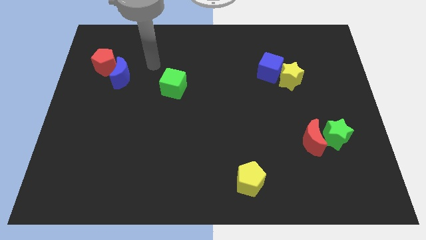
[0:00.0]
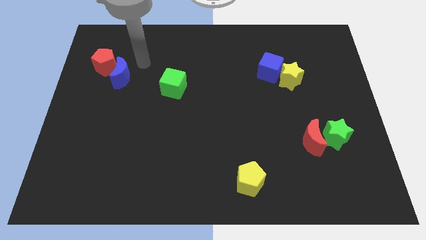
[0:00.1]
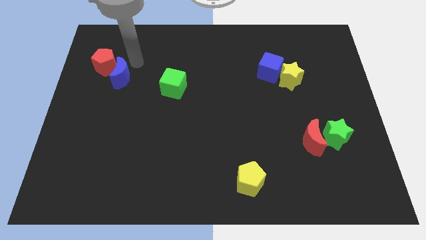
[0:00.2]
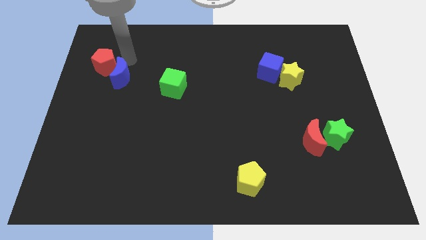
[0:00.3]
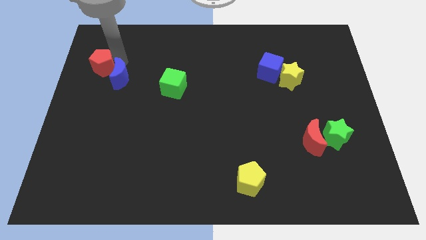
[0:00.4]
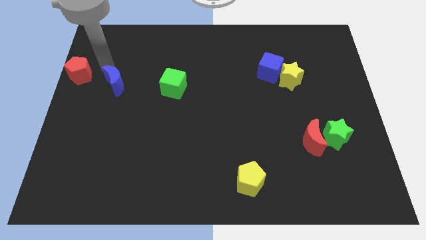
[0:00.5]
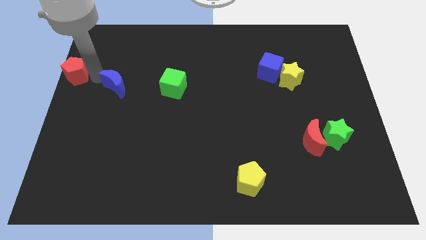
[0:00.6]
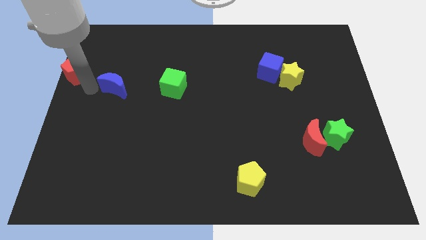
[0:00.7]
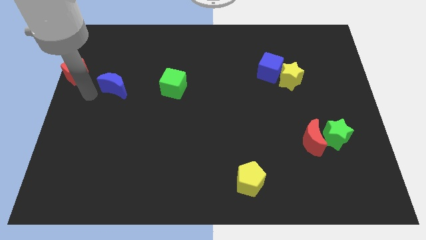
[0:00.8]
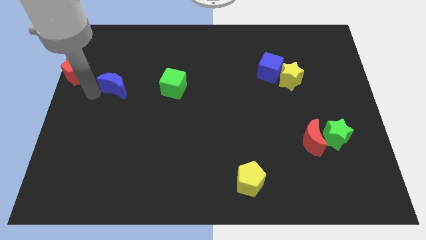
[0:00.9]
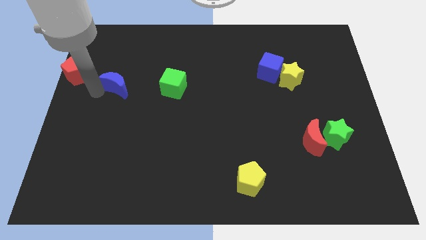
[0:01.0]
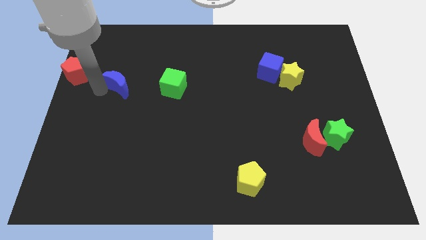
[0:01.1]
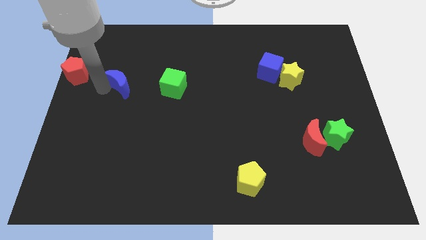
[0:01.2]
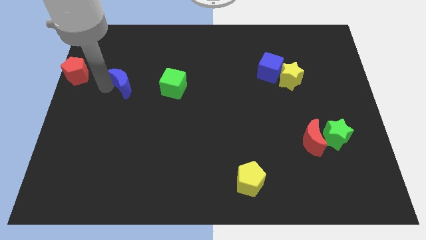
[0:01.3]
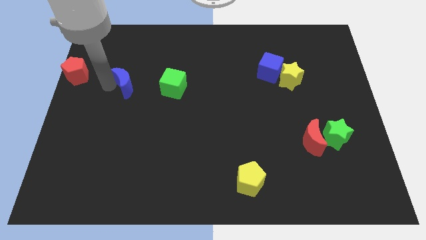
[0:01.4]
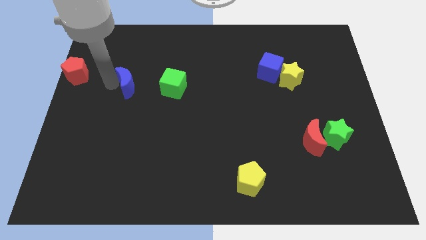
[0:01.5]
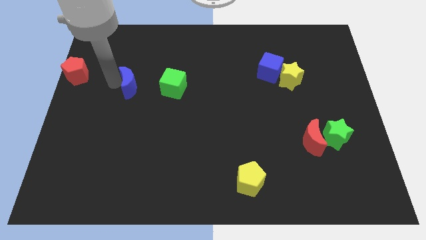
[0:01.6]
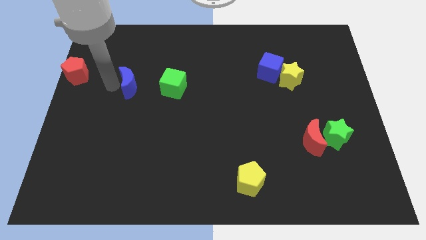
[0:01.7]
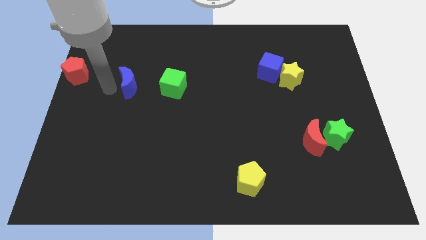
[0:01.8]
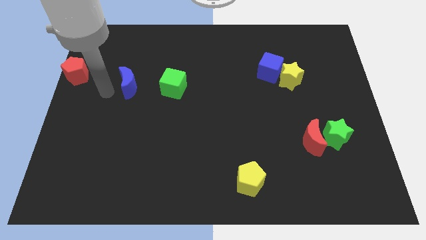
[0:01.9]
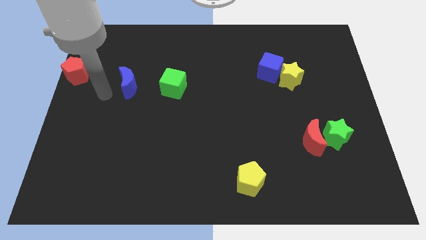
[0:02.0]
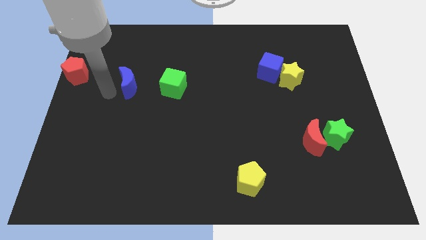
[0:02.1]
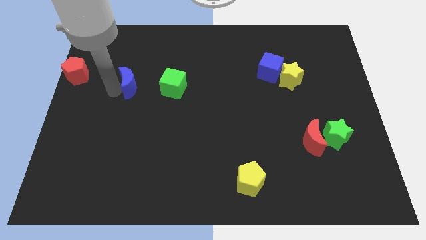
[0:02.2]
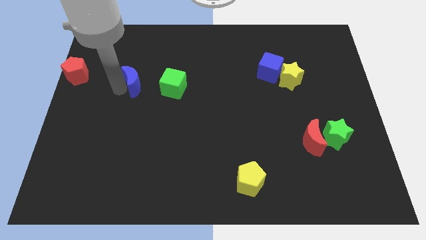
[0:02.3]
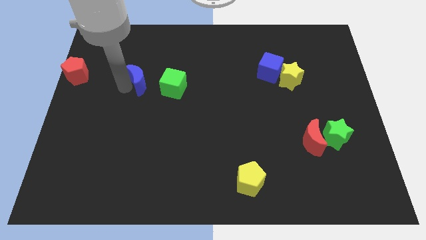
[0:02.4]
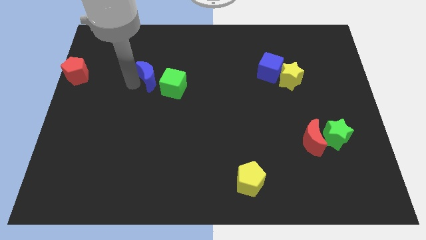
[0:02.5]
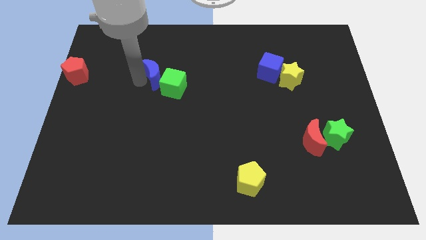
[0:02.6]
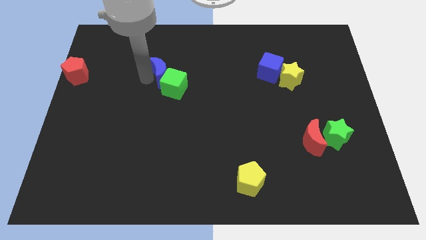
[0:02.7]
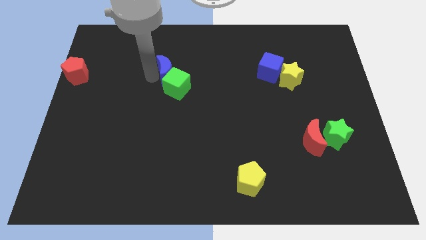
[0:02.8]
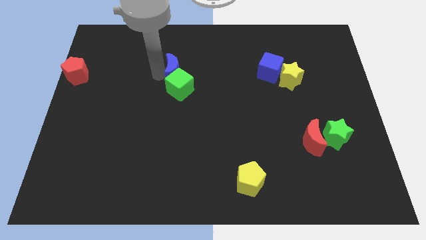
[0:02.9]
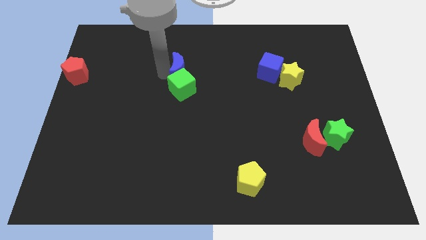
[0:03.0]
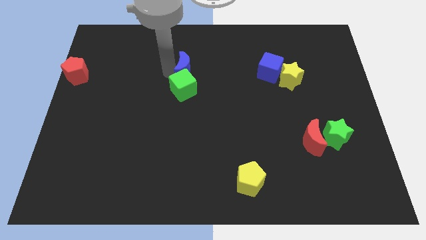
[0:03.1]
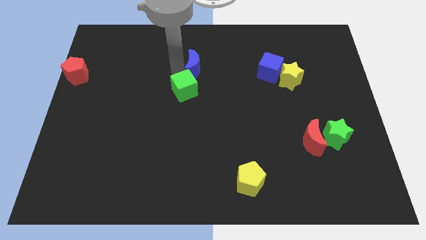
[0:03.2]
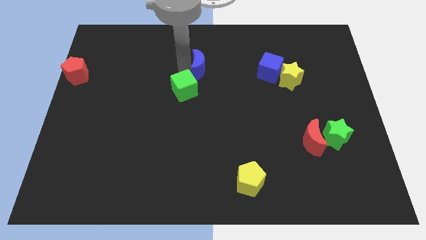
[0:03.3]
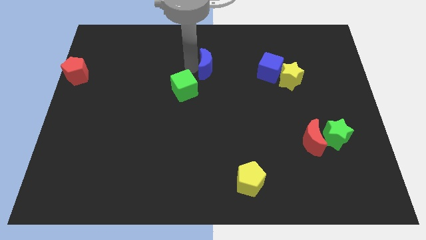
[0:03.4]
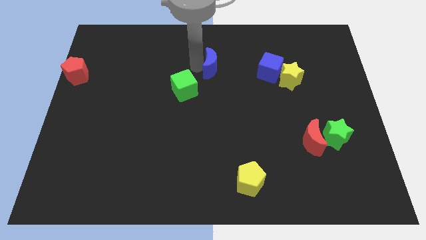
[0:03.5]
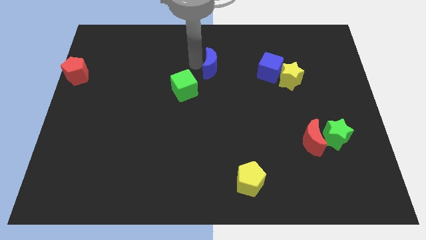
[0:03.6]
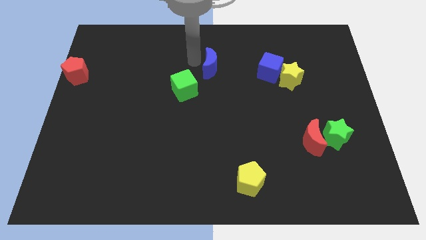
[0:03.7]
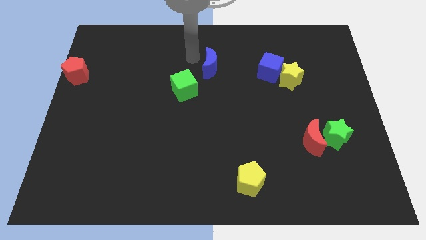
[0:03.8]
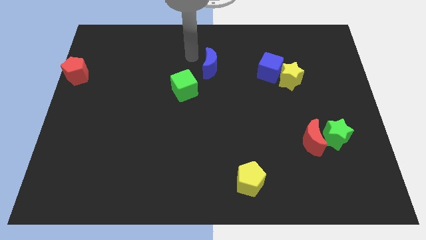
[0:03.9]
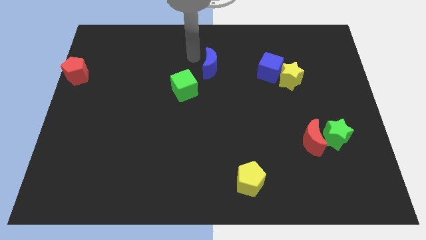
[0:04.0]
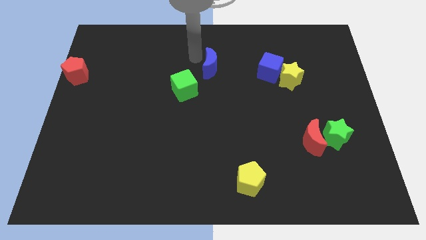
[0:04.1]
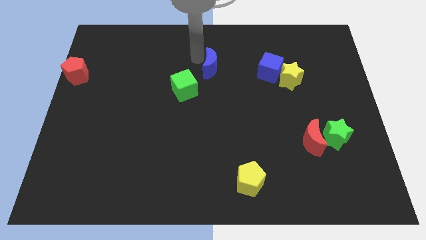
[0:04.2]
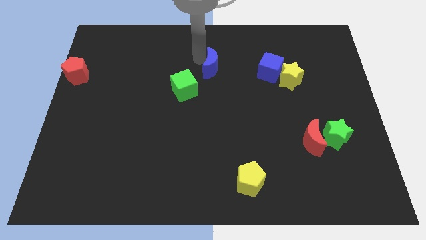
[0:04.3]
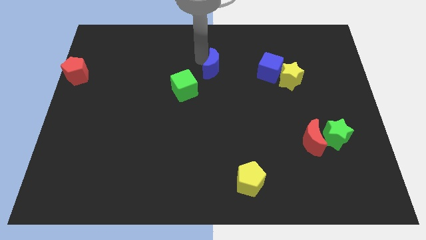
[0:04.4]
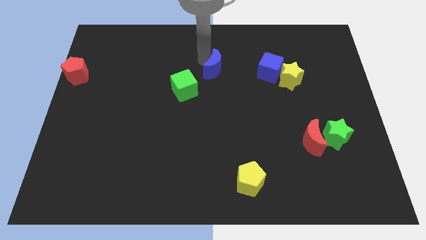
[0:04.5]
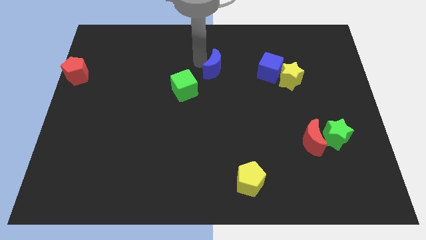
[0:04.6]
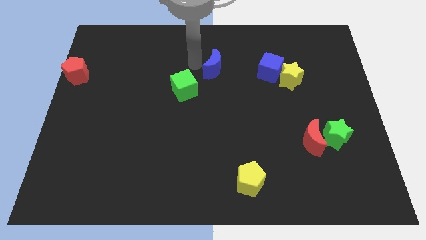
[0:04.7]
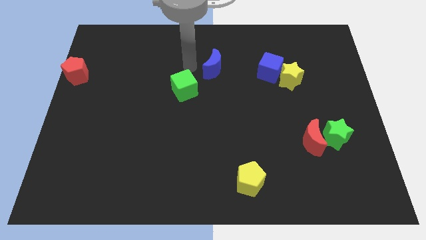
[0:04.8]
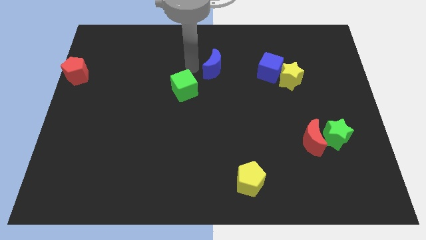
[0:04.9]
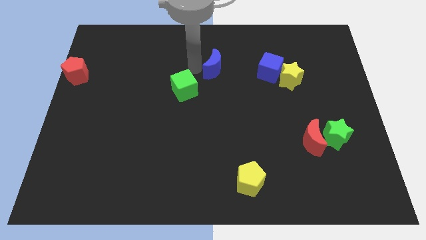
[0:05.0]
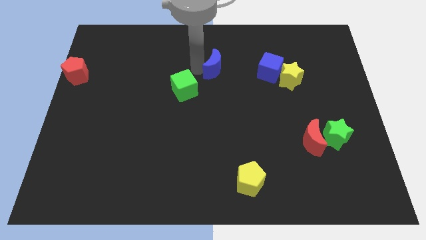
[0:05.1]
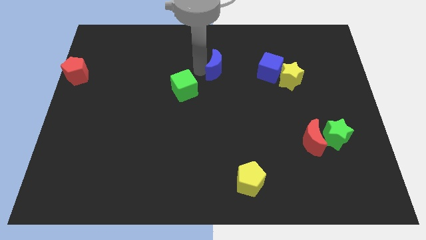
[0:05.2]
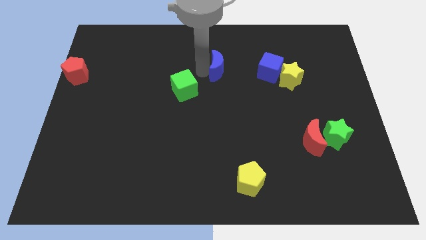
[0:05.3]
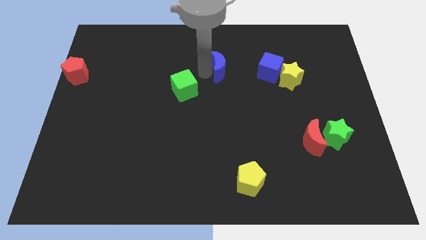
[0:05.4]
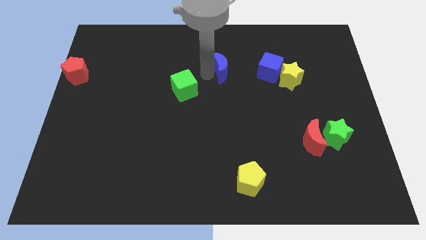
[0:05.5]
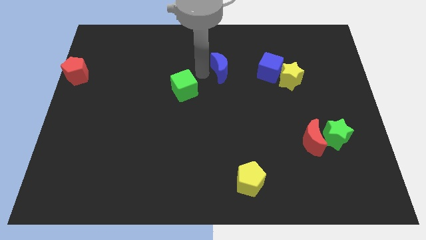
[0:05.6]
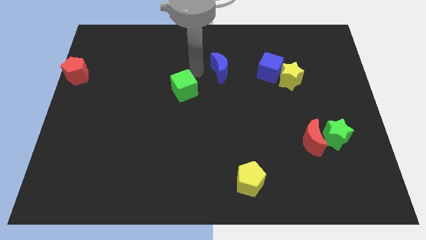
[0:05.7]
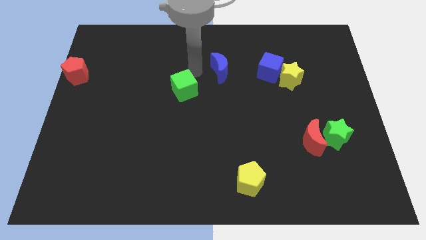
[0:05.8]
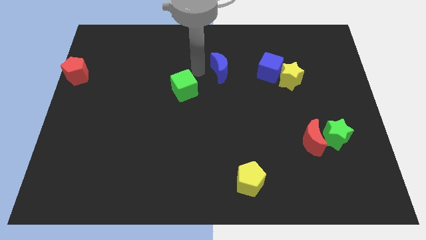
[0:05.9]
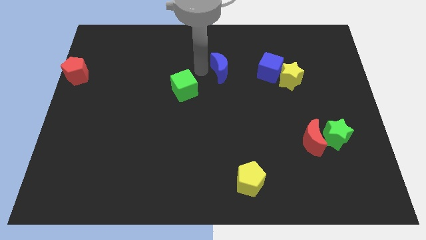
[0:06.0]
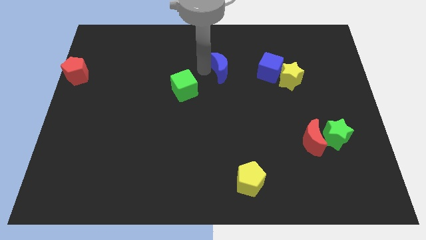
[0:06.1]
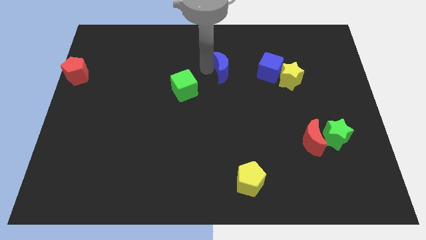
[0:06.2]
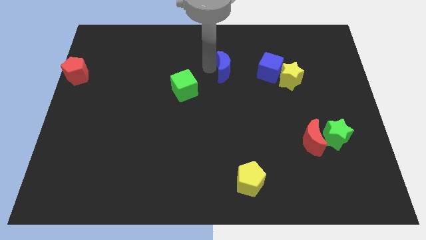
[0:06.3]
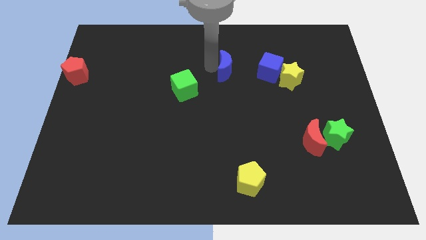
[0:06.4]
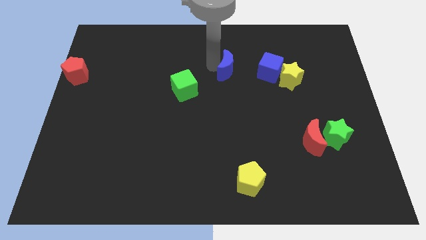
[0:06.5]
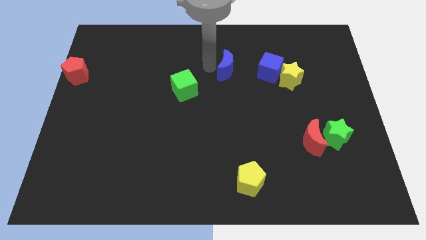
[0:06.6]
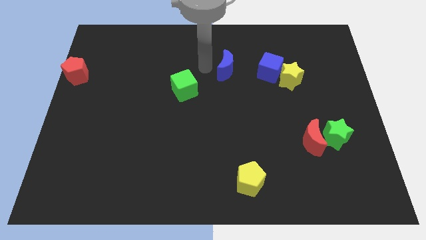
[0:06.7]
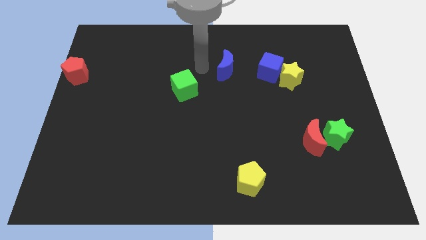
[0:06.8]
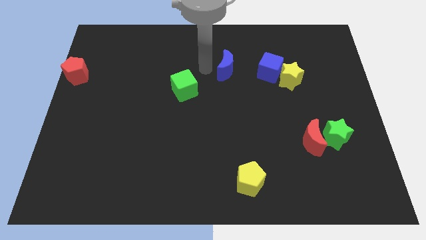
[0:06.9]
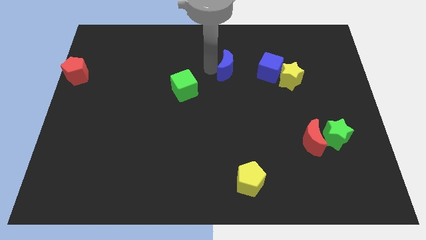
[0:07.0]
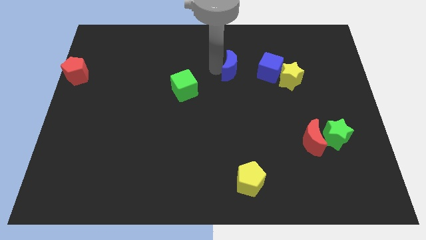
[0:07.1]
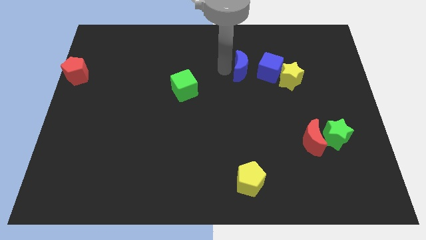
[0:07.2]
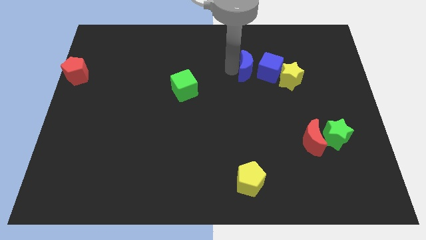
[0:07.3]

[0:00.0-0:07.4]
put the blue moon to the blue cube
